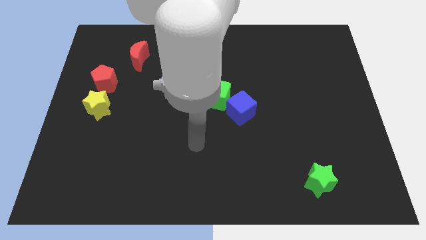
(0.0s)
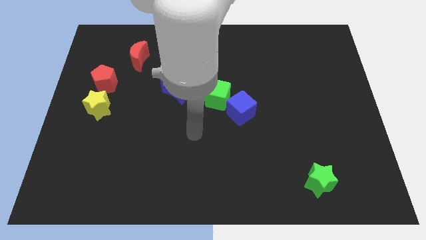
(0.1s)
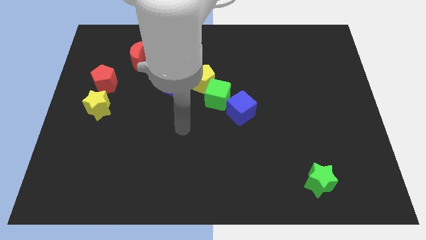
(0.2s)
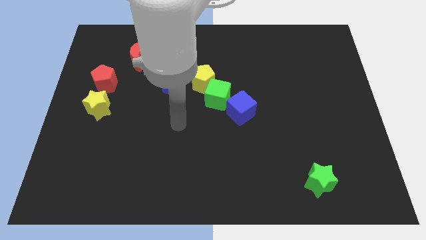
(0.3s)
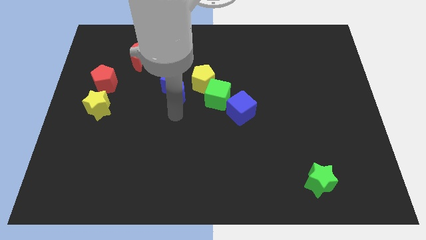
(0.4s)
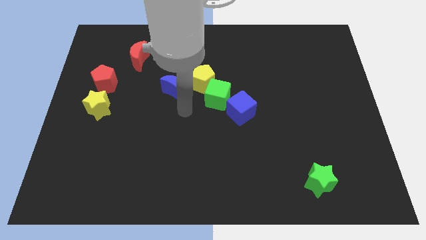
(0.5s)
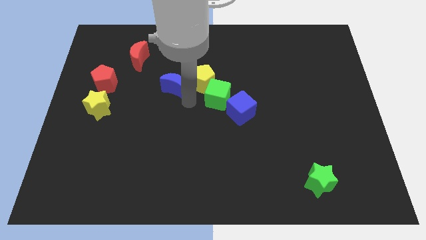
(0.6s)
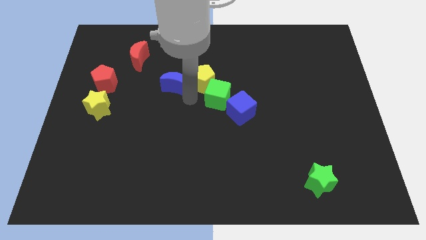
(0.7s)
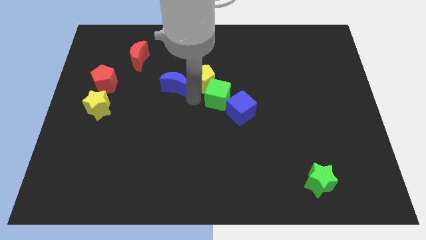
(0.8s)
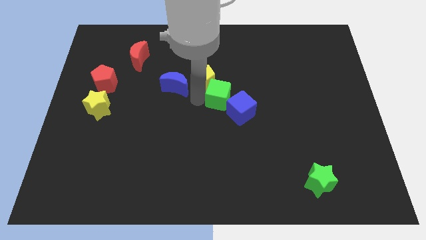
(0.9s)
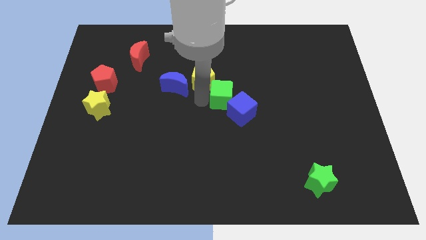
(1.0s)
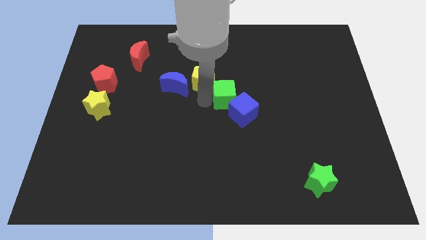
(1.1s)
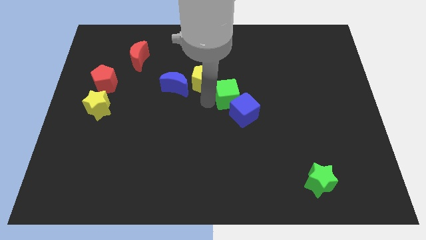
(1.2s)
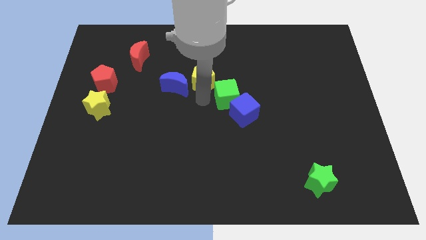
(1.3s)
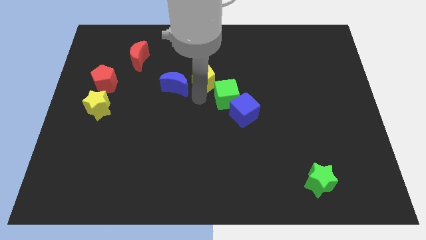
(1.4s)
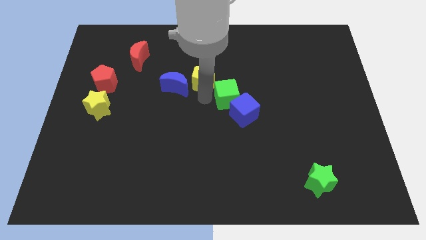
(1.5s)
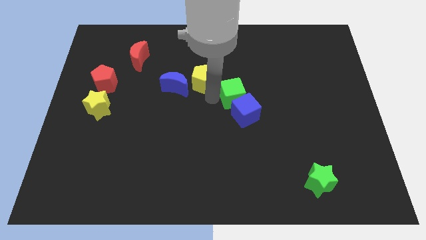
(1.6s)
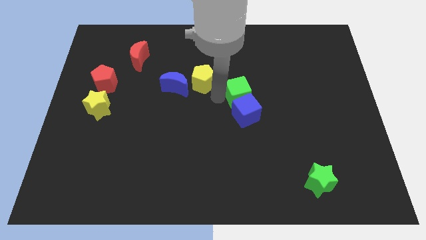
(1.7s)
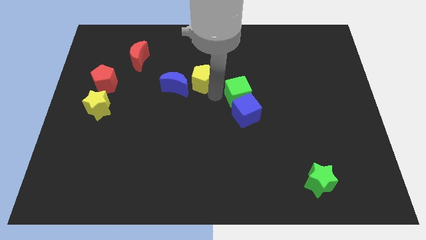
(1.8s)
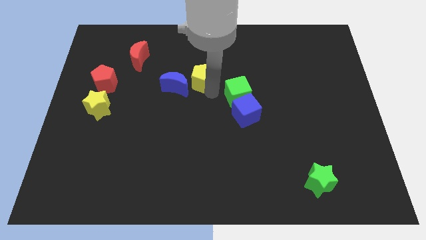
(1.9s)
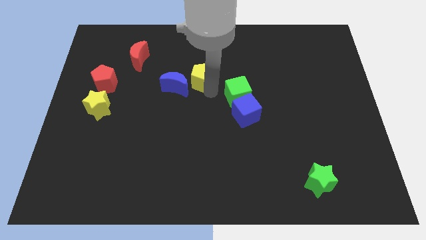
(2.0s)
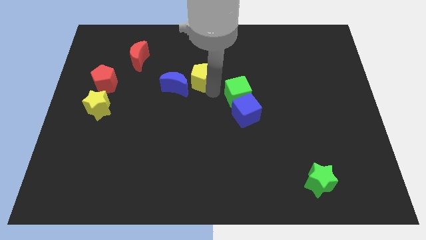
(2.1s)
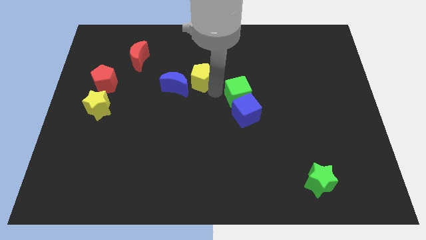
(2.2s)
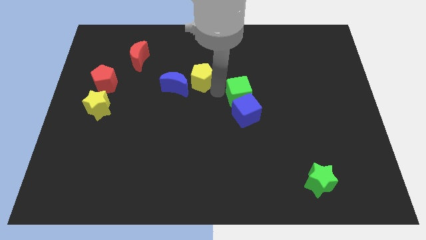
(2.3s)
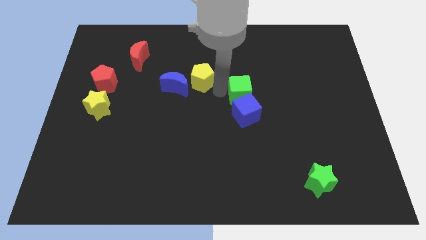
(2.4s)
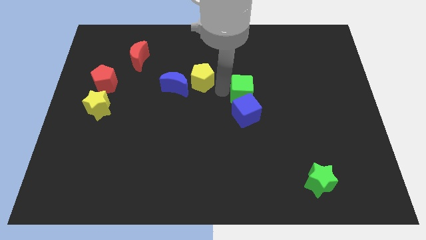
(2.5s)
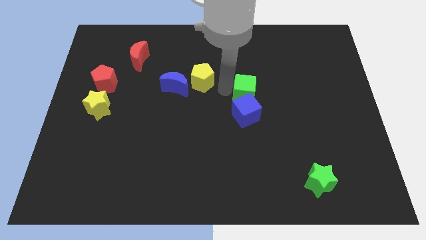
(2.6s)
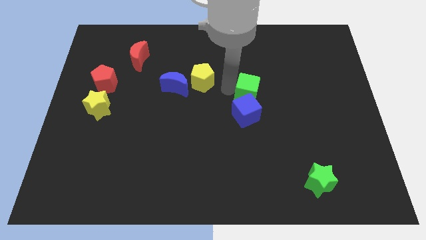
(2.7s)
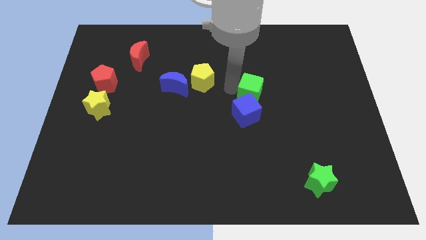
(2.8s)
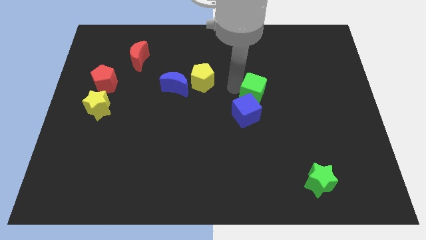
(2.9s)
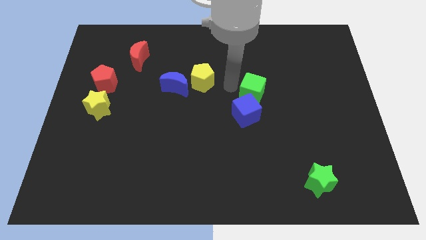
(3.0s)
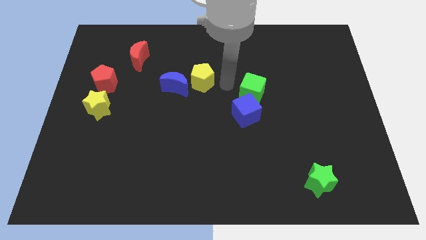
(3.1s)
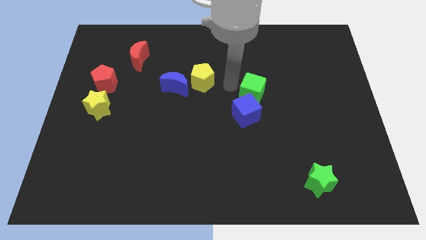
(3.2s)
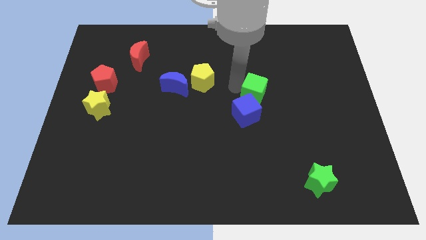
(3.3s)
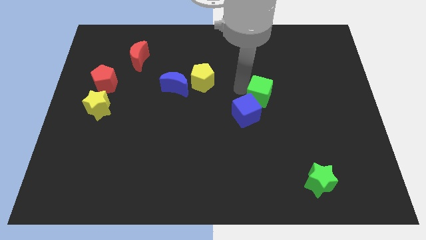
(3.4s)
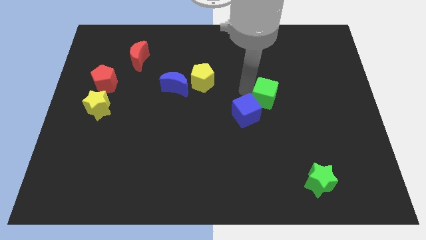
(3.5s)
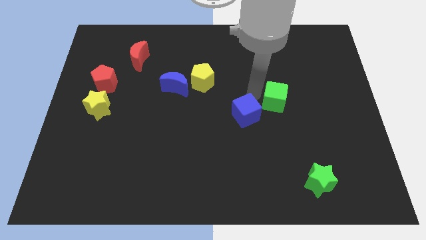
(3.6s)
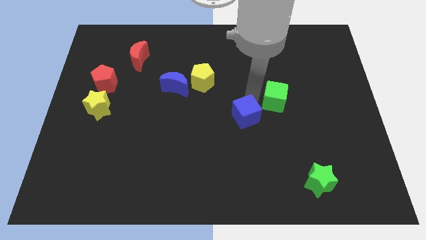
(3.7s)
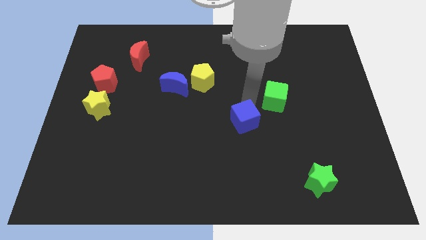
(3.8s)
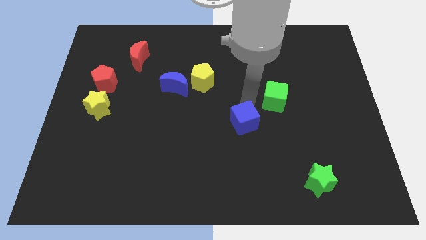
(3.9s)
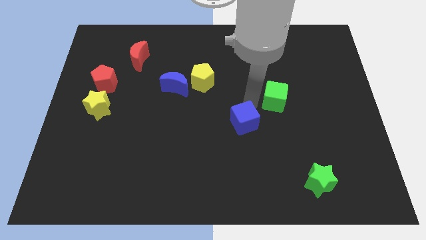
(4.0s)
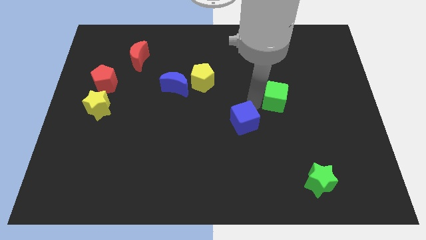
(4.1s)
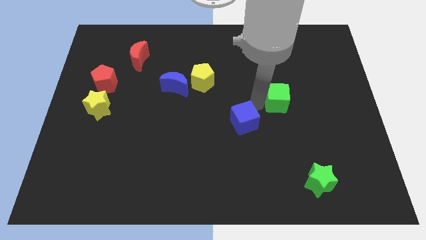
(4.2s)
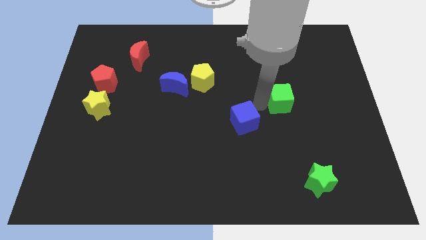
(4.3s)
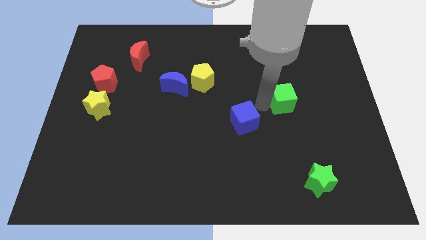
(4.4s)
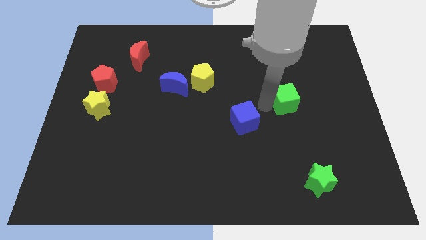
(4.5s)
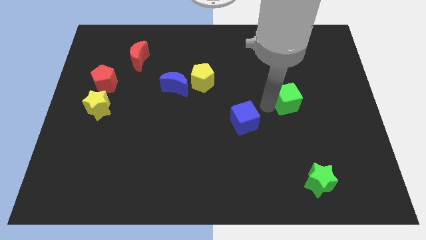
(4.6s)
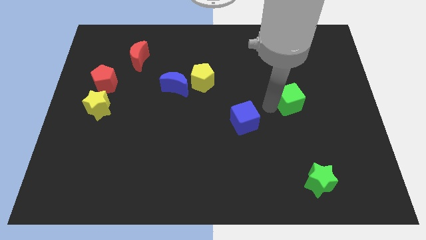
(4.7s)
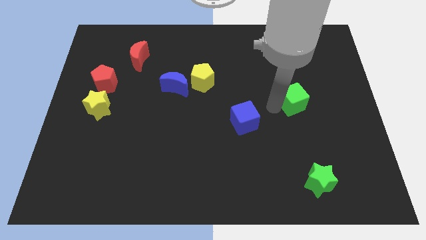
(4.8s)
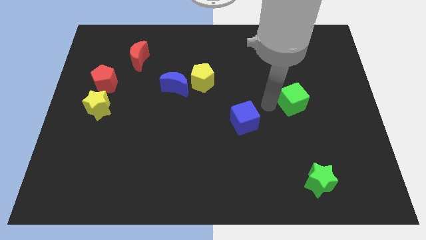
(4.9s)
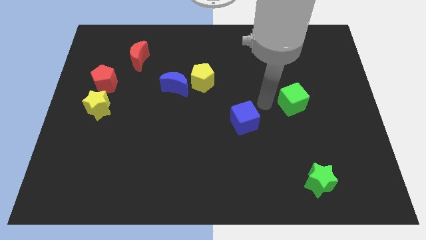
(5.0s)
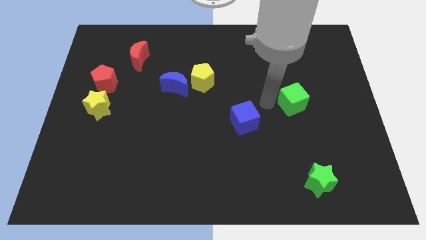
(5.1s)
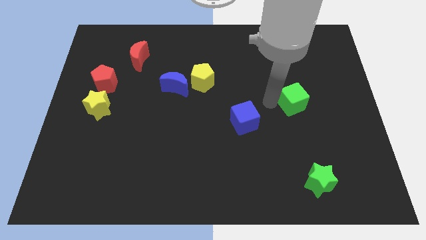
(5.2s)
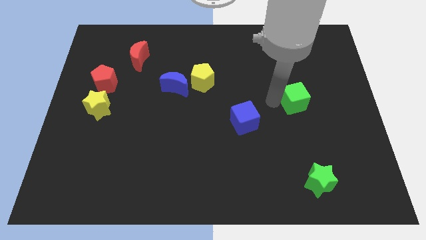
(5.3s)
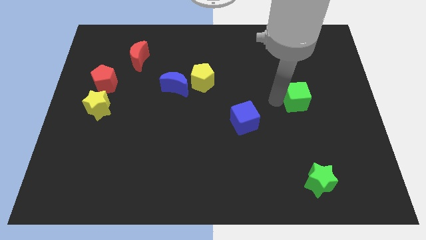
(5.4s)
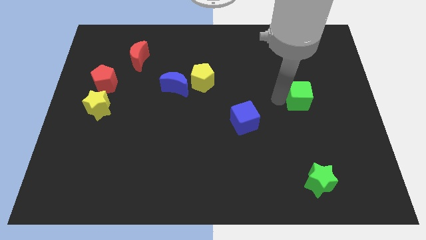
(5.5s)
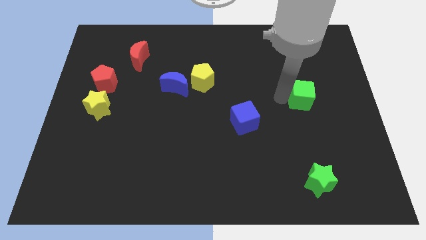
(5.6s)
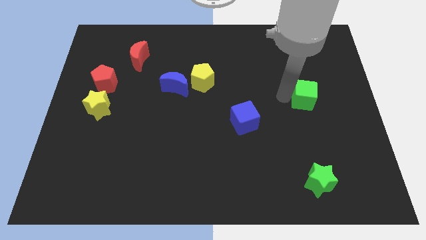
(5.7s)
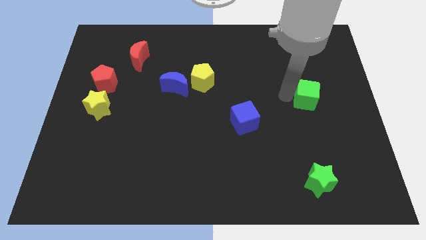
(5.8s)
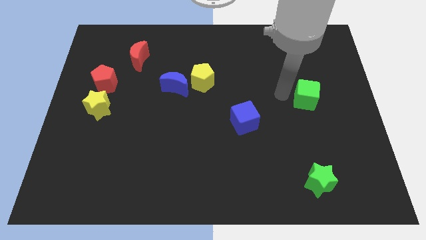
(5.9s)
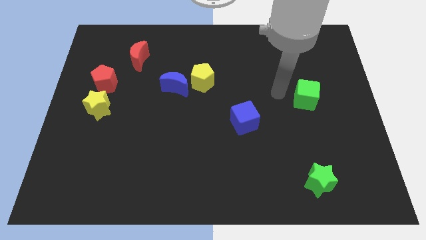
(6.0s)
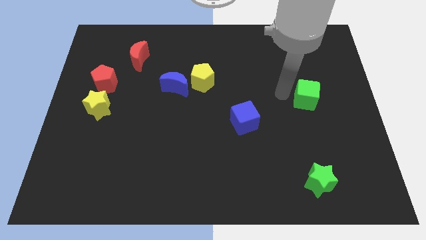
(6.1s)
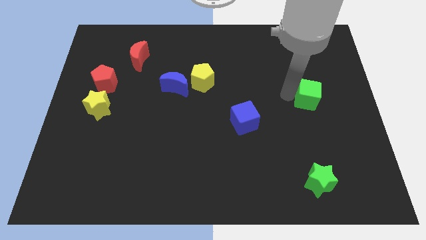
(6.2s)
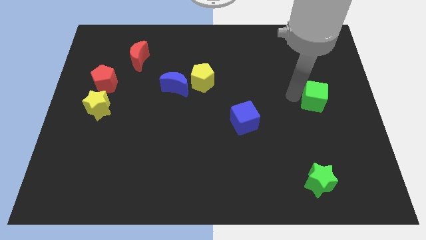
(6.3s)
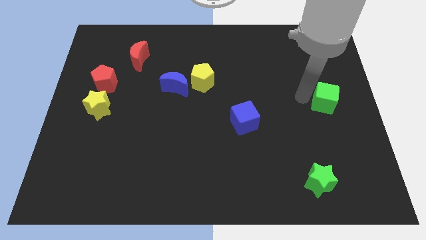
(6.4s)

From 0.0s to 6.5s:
put the green cube to the right side
